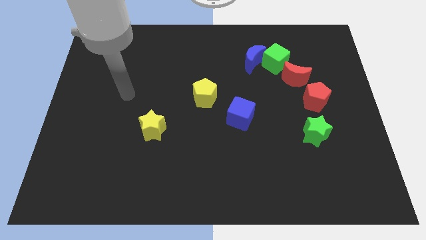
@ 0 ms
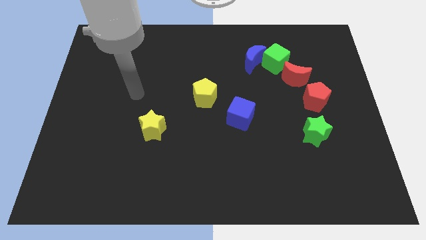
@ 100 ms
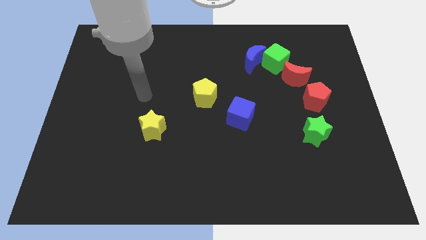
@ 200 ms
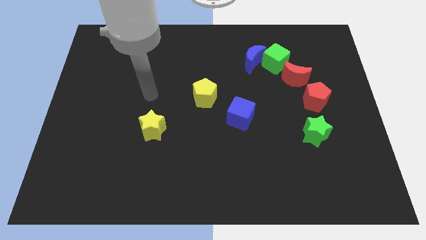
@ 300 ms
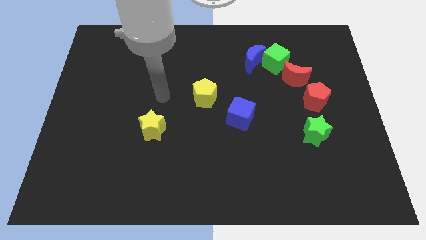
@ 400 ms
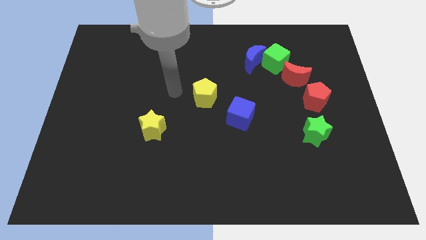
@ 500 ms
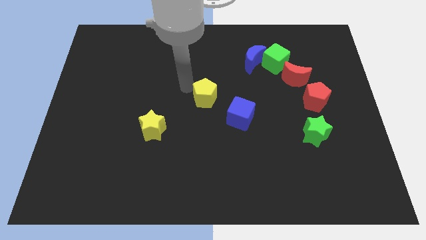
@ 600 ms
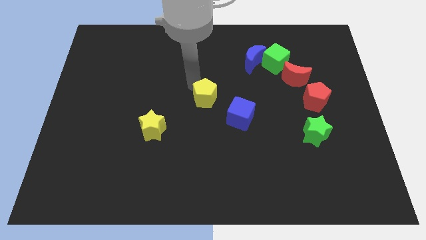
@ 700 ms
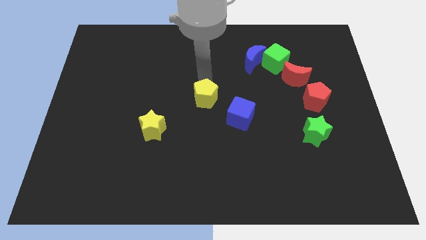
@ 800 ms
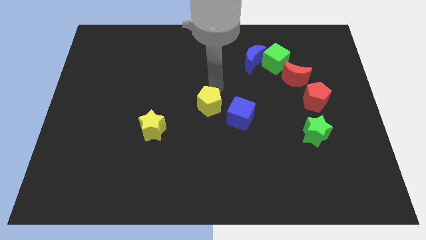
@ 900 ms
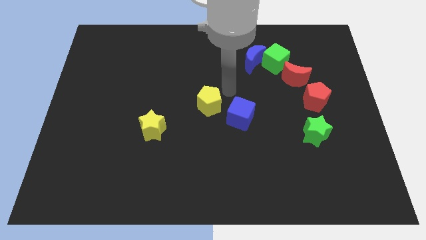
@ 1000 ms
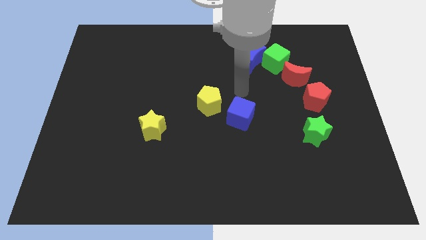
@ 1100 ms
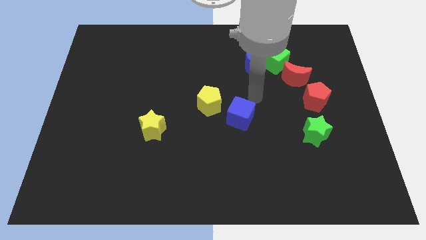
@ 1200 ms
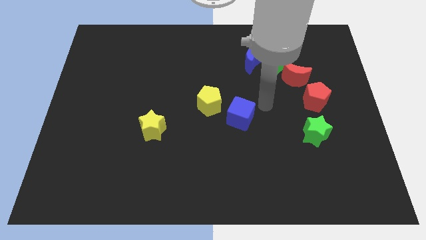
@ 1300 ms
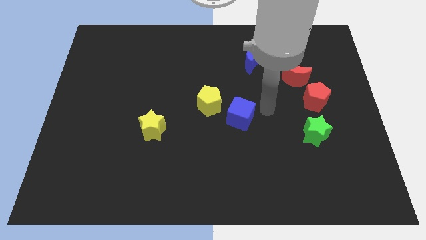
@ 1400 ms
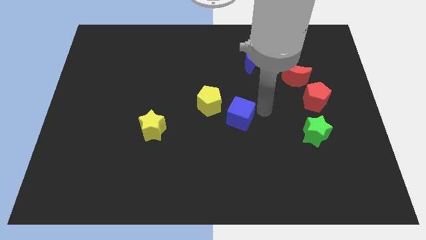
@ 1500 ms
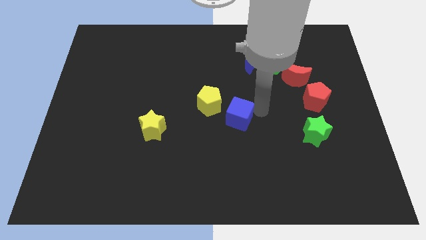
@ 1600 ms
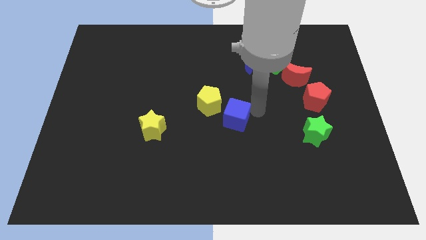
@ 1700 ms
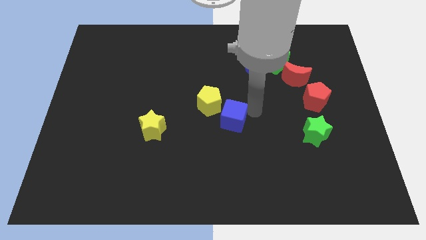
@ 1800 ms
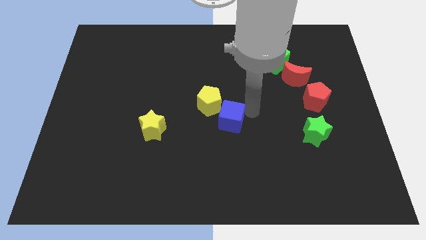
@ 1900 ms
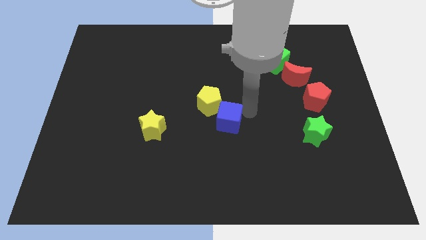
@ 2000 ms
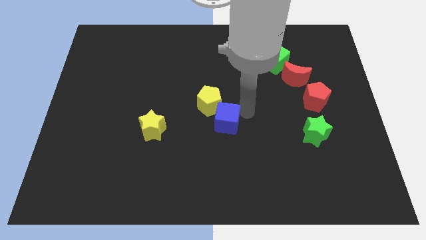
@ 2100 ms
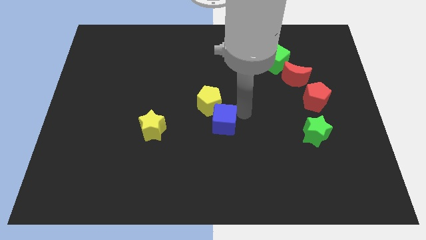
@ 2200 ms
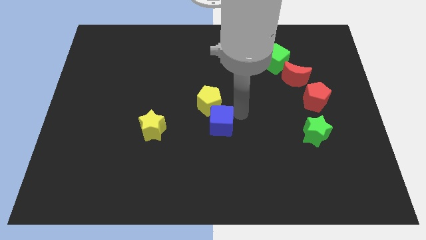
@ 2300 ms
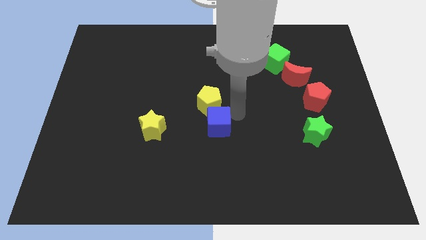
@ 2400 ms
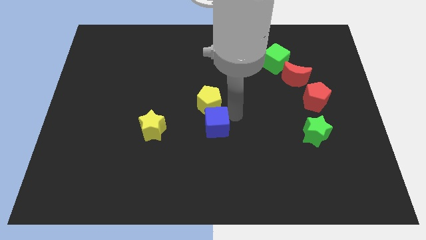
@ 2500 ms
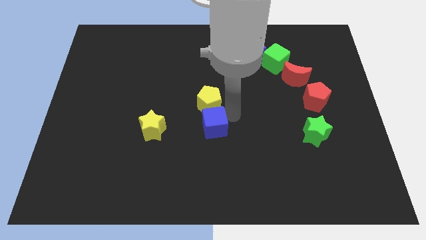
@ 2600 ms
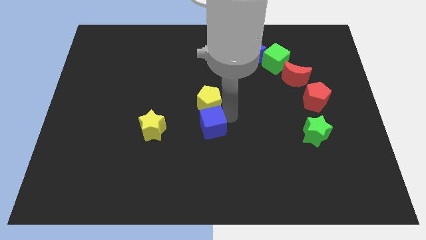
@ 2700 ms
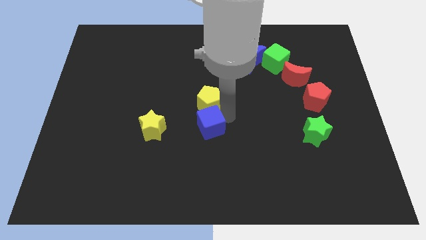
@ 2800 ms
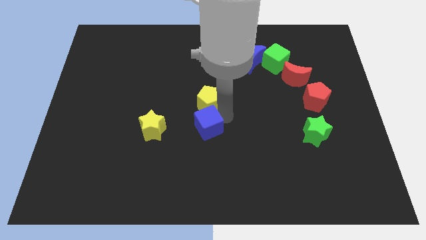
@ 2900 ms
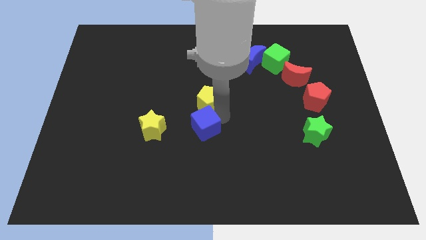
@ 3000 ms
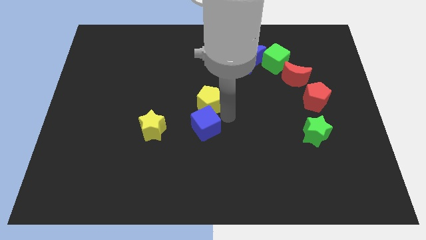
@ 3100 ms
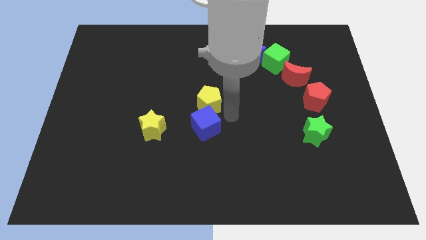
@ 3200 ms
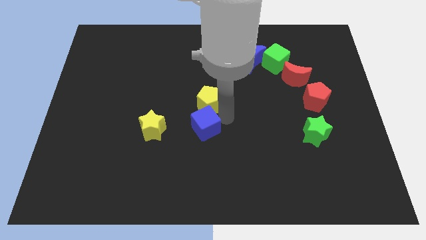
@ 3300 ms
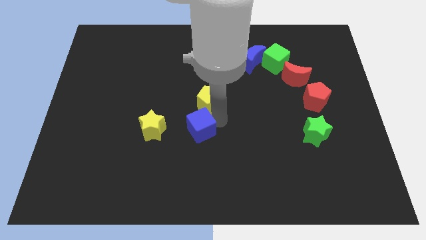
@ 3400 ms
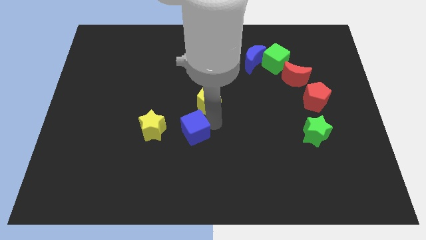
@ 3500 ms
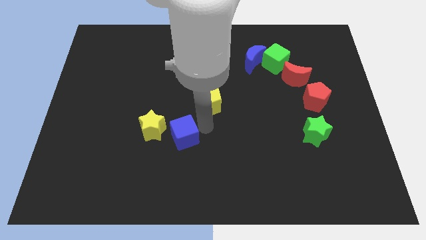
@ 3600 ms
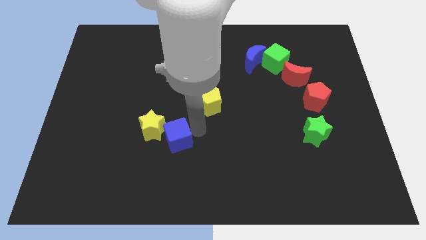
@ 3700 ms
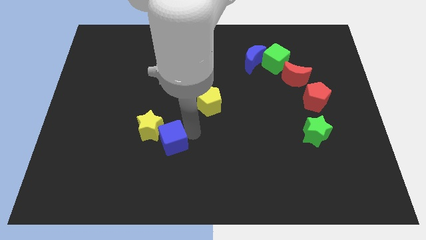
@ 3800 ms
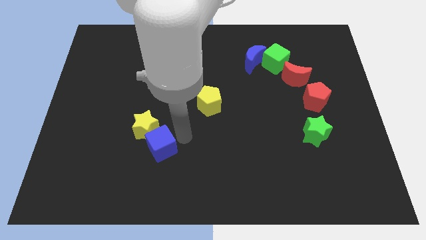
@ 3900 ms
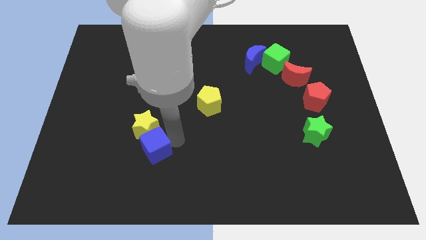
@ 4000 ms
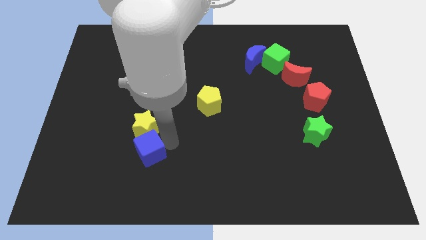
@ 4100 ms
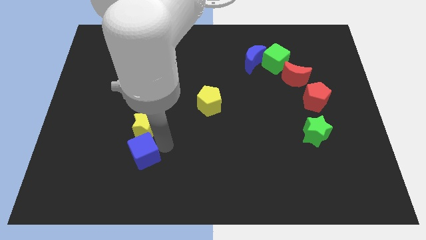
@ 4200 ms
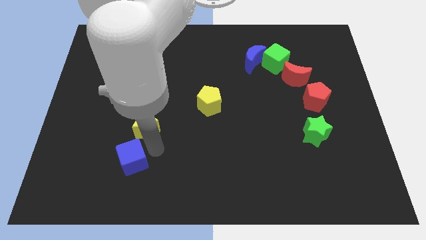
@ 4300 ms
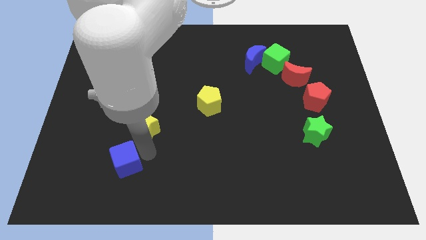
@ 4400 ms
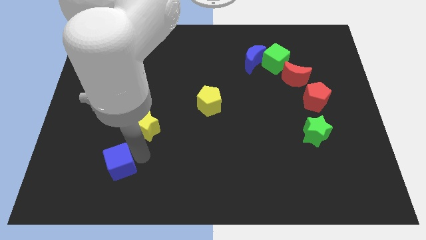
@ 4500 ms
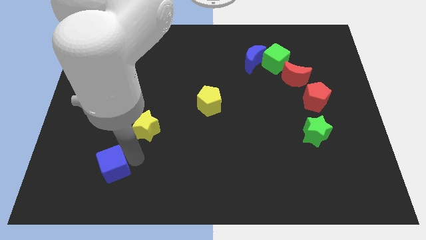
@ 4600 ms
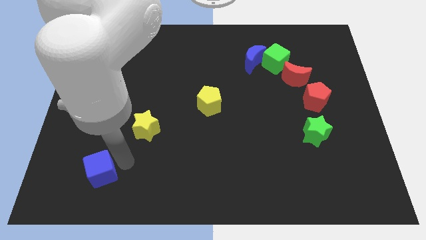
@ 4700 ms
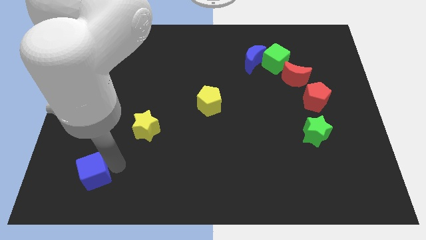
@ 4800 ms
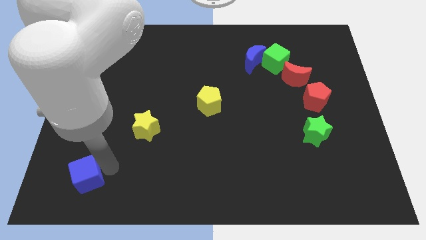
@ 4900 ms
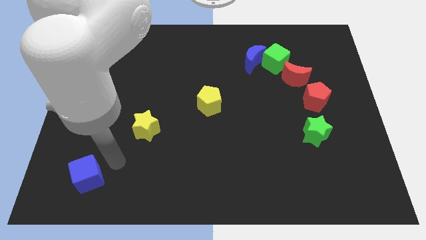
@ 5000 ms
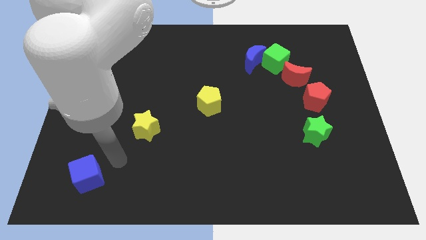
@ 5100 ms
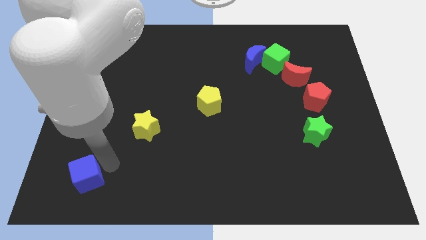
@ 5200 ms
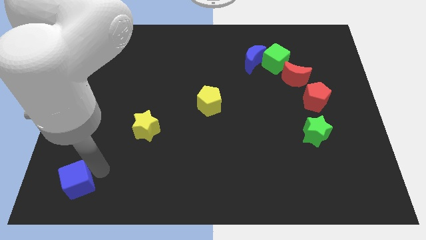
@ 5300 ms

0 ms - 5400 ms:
move the blue cube to the bottom left of the board

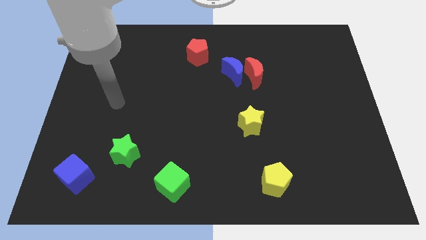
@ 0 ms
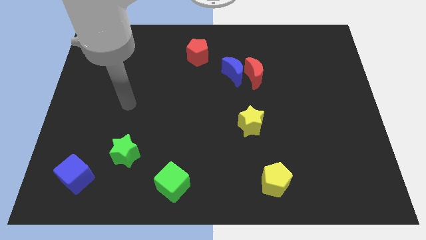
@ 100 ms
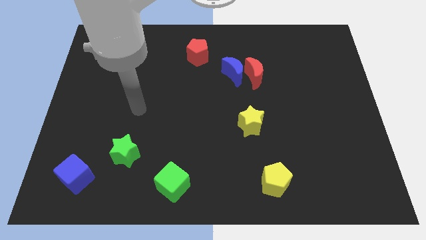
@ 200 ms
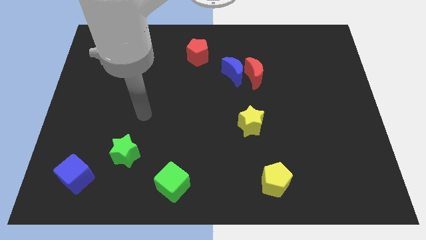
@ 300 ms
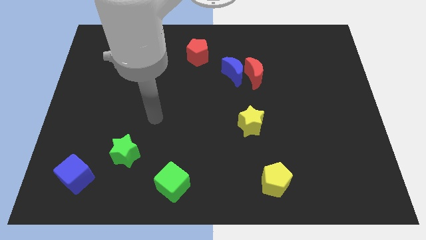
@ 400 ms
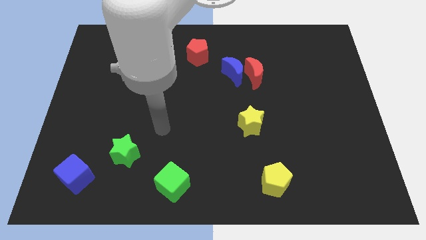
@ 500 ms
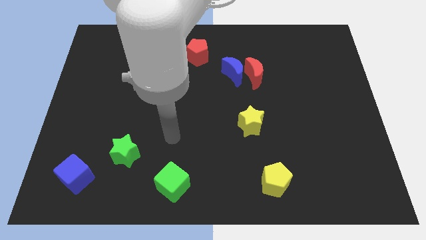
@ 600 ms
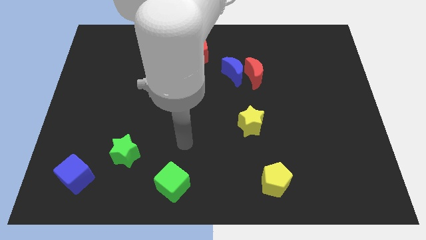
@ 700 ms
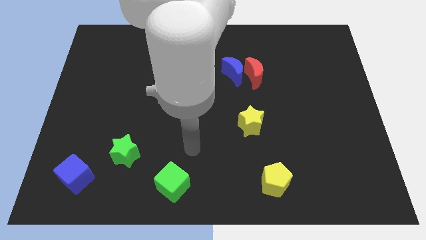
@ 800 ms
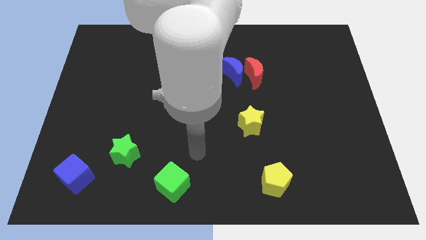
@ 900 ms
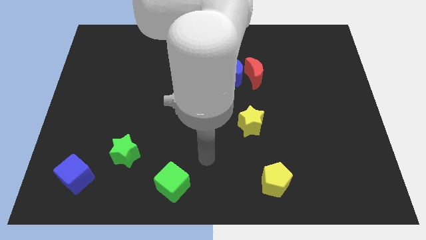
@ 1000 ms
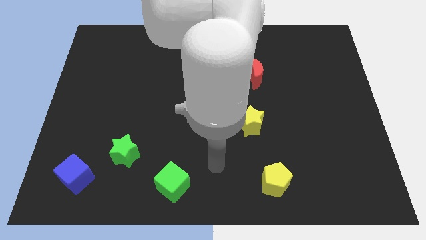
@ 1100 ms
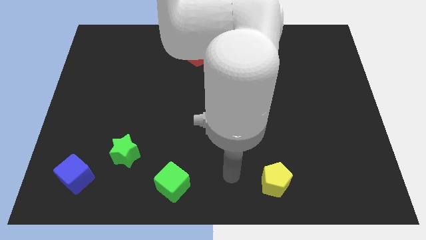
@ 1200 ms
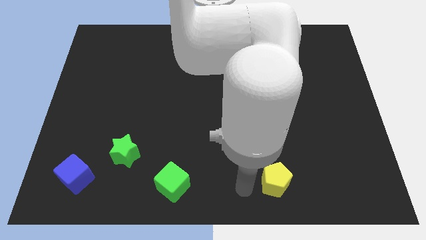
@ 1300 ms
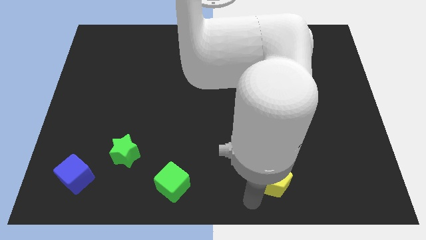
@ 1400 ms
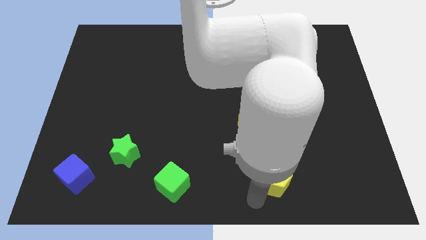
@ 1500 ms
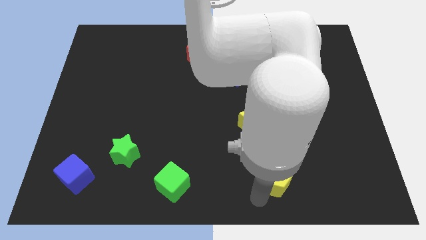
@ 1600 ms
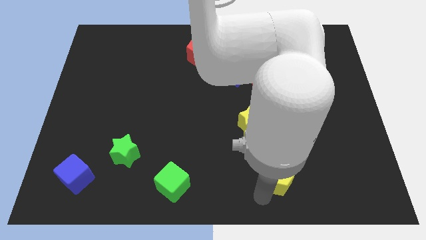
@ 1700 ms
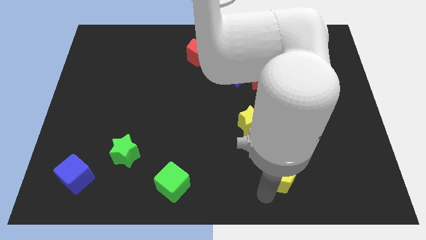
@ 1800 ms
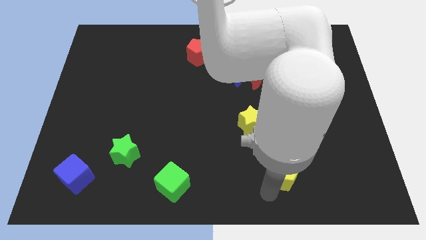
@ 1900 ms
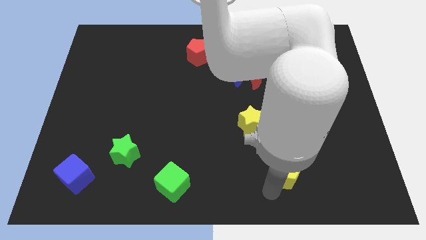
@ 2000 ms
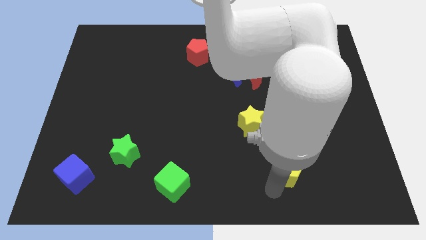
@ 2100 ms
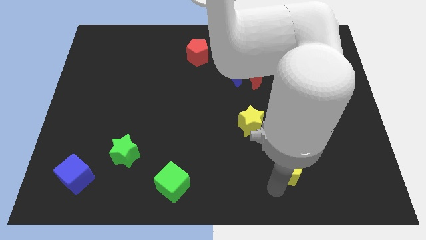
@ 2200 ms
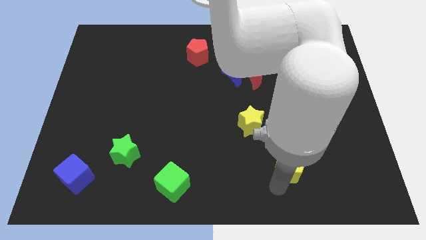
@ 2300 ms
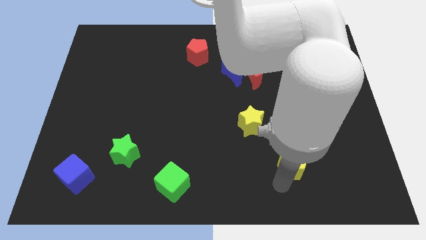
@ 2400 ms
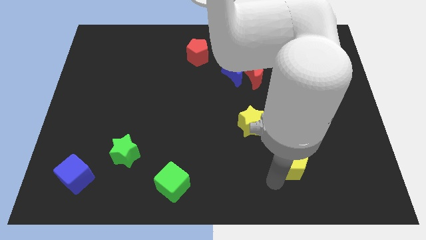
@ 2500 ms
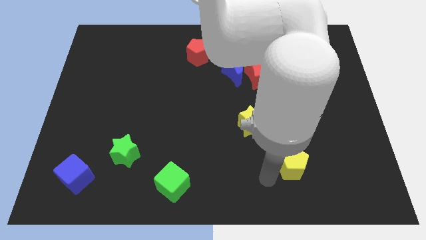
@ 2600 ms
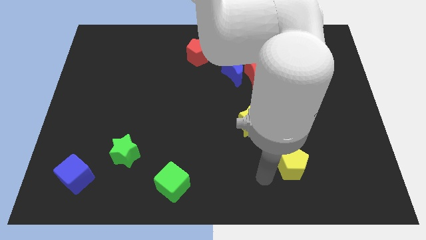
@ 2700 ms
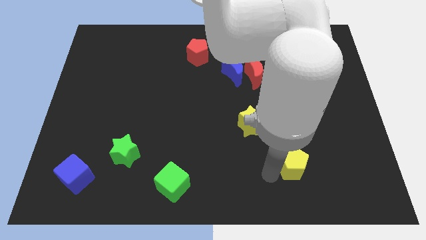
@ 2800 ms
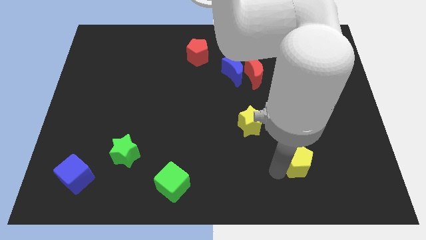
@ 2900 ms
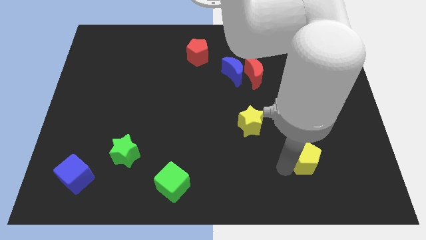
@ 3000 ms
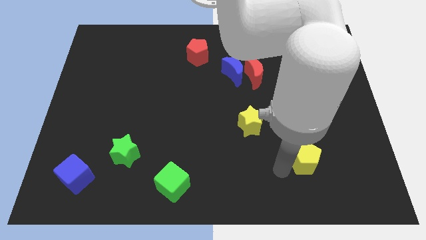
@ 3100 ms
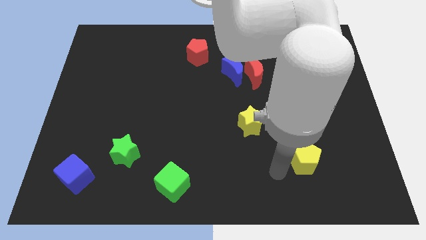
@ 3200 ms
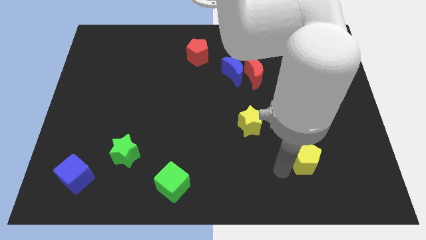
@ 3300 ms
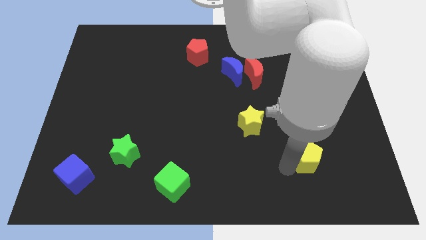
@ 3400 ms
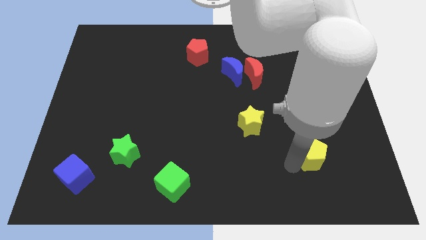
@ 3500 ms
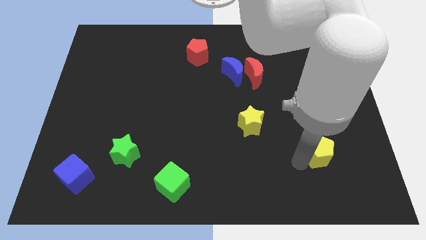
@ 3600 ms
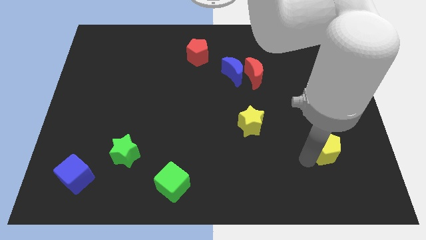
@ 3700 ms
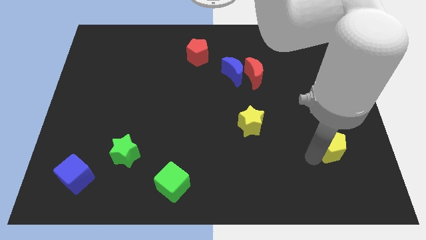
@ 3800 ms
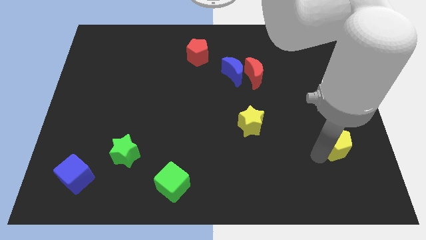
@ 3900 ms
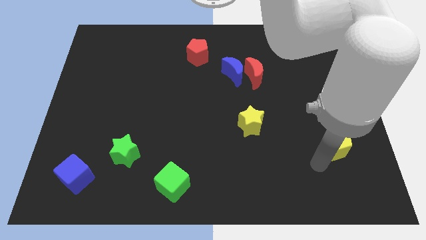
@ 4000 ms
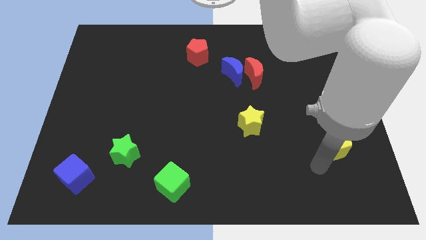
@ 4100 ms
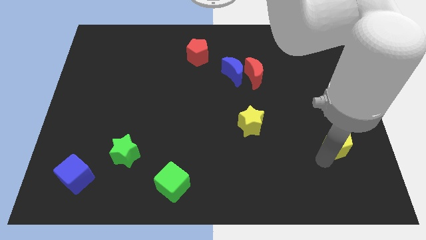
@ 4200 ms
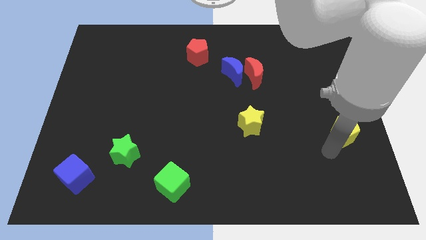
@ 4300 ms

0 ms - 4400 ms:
put the yellow pentagon to the right side of the board
